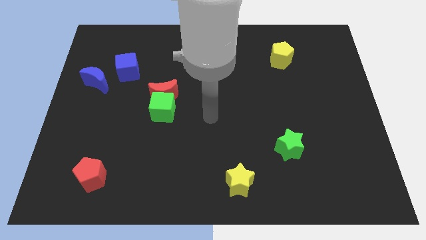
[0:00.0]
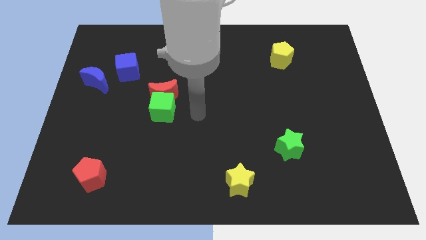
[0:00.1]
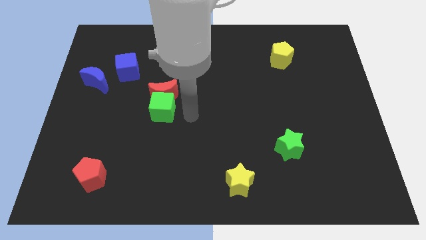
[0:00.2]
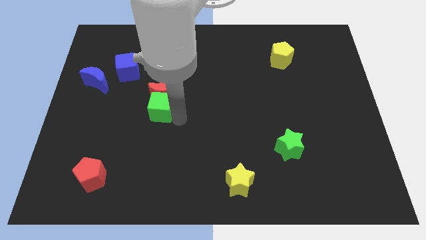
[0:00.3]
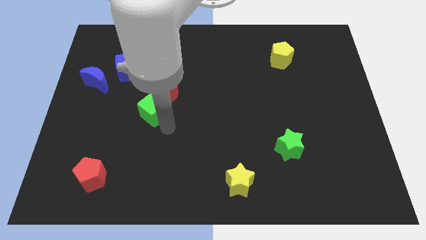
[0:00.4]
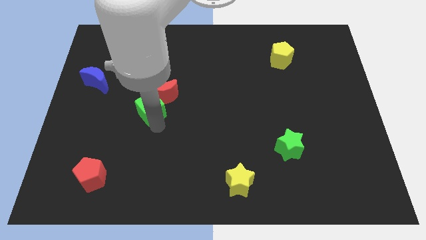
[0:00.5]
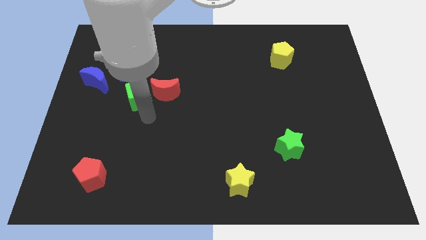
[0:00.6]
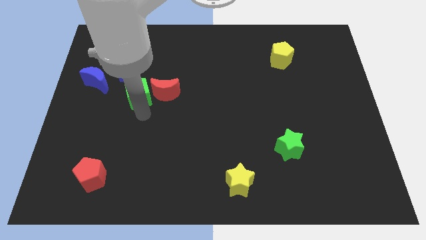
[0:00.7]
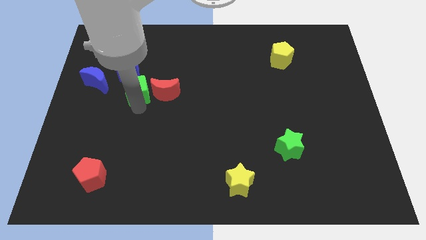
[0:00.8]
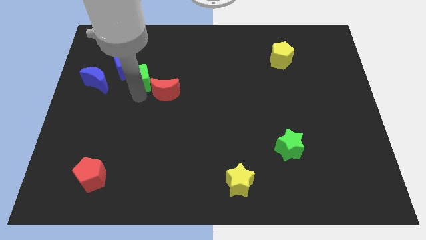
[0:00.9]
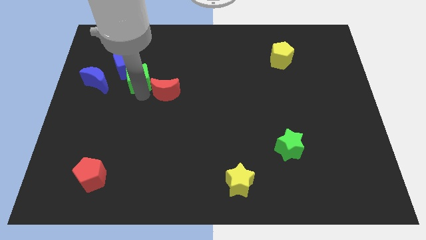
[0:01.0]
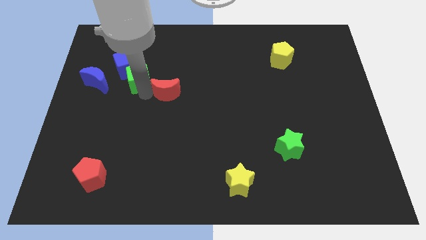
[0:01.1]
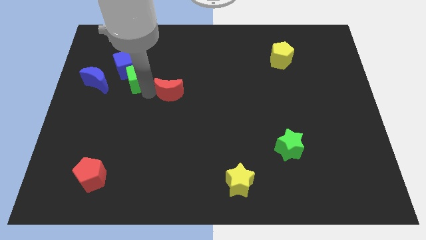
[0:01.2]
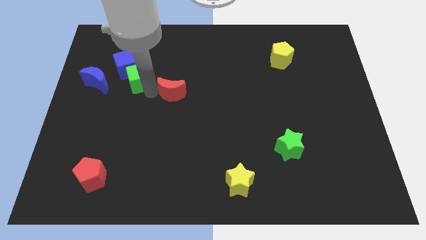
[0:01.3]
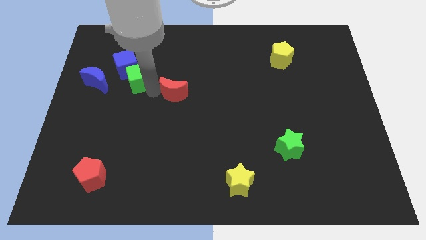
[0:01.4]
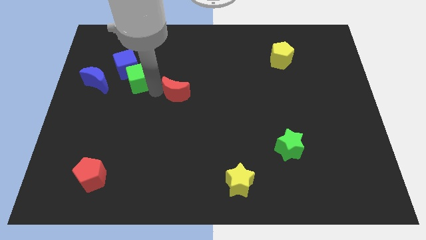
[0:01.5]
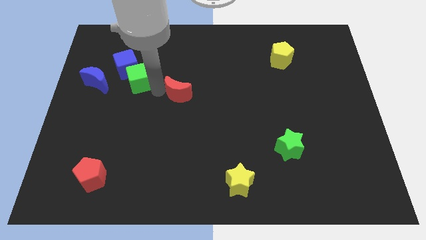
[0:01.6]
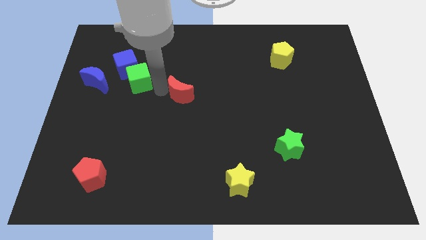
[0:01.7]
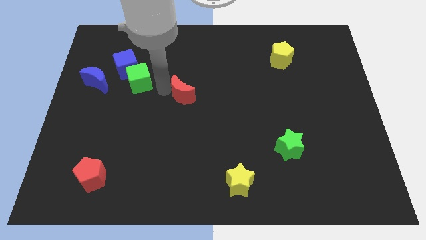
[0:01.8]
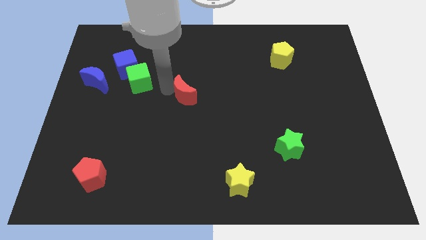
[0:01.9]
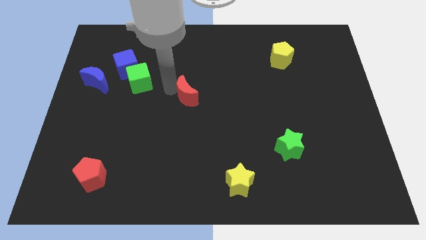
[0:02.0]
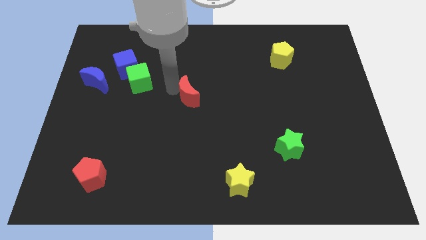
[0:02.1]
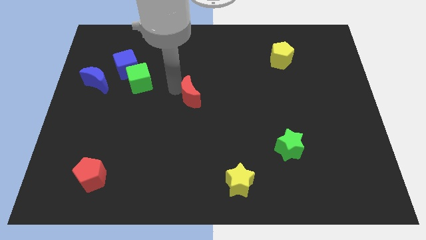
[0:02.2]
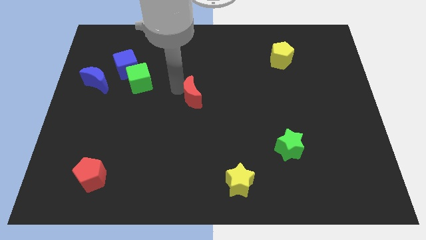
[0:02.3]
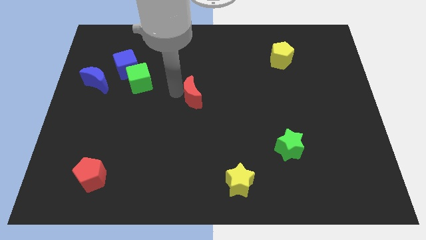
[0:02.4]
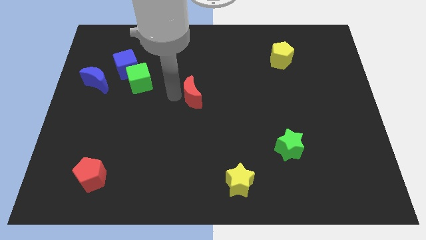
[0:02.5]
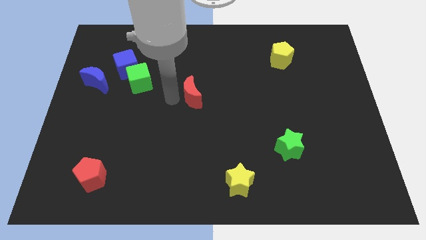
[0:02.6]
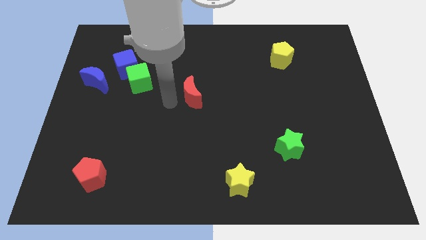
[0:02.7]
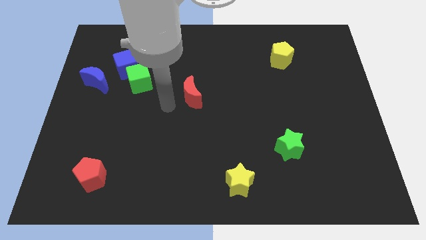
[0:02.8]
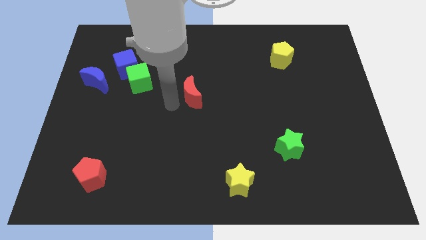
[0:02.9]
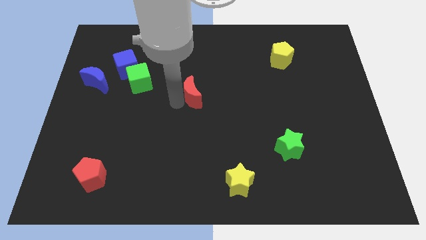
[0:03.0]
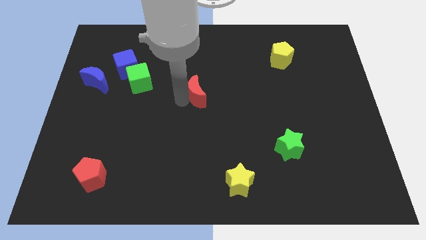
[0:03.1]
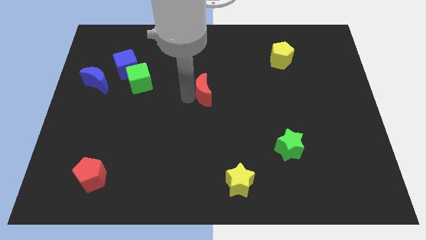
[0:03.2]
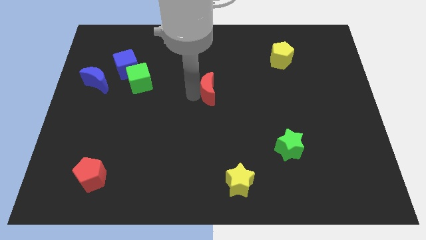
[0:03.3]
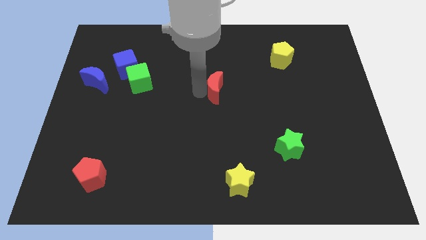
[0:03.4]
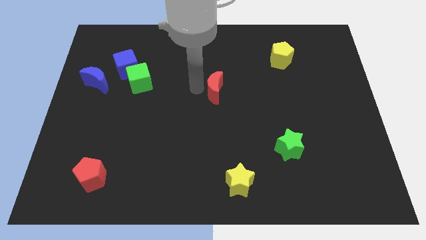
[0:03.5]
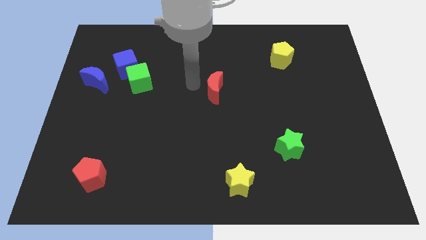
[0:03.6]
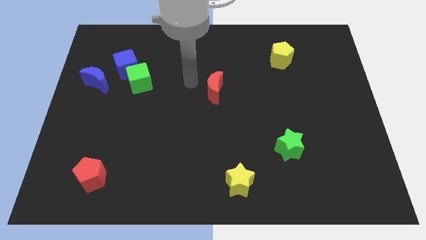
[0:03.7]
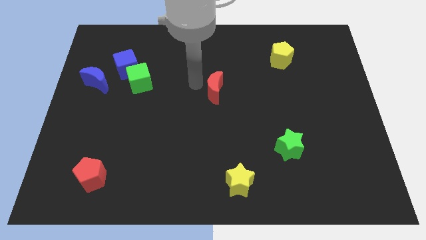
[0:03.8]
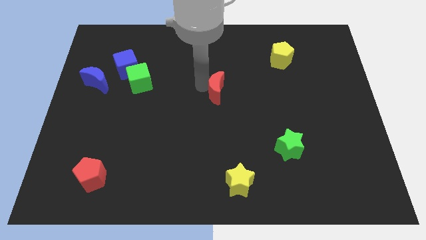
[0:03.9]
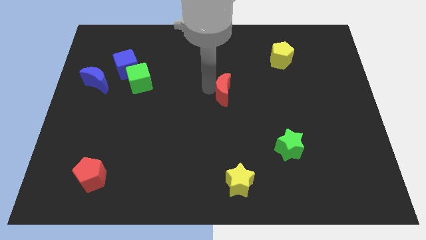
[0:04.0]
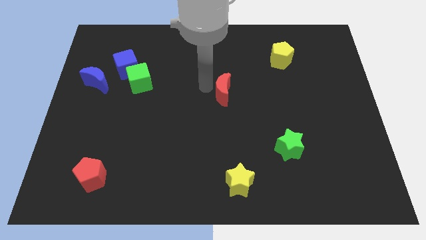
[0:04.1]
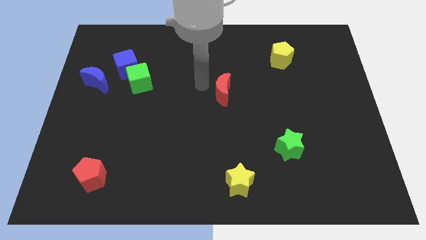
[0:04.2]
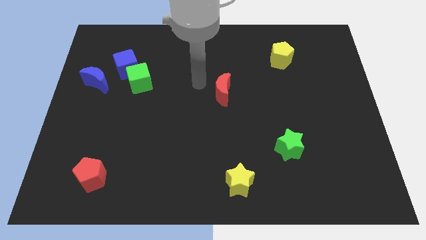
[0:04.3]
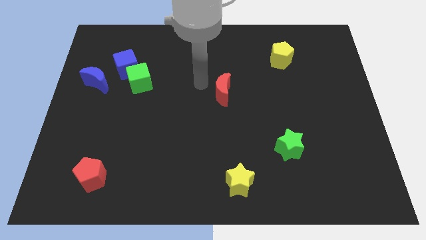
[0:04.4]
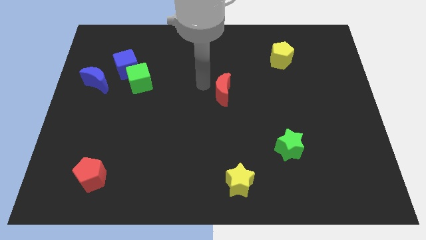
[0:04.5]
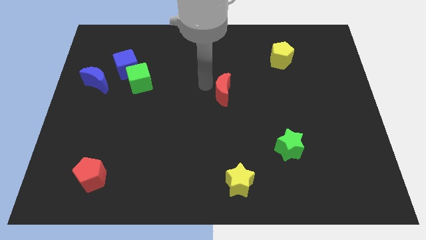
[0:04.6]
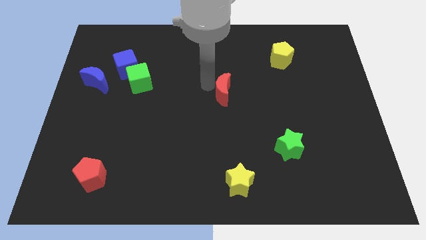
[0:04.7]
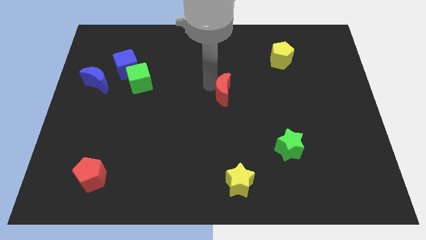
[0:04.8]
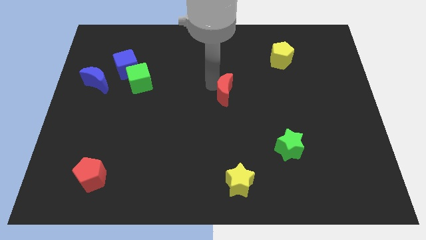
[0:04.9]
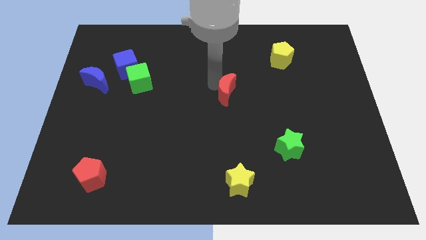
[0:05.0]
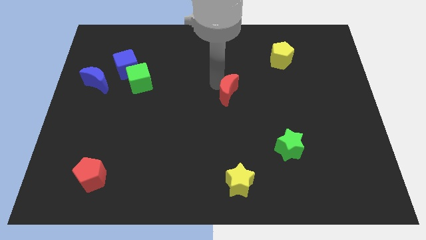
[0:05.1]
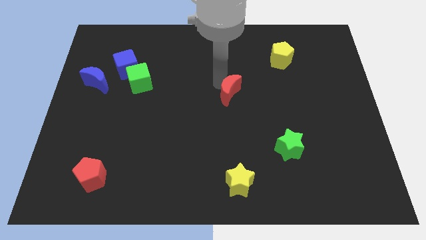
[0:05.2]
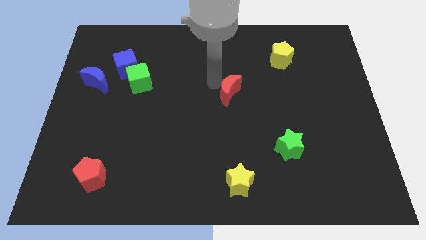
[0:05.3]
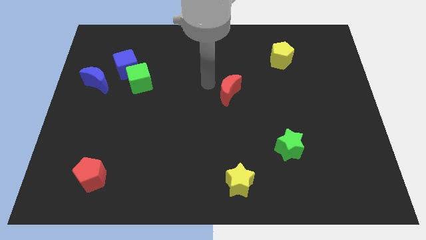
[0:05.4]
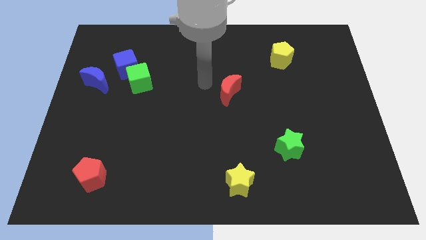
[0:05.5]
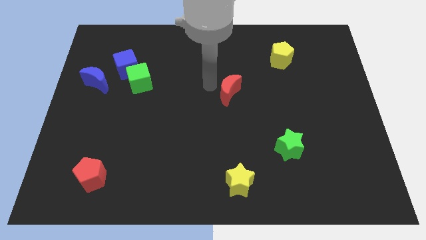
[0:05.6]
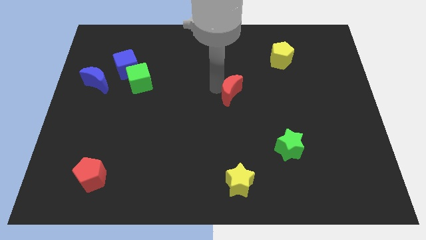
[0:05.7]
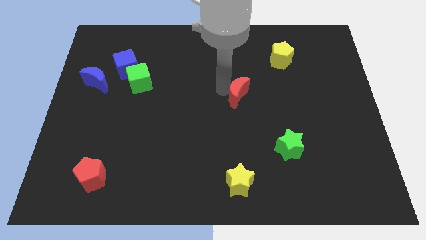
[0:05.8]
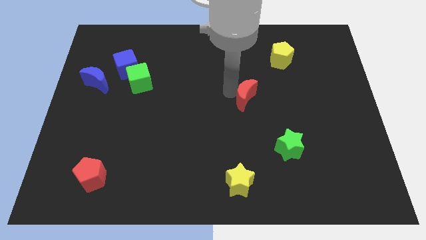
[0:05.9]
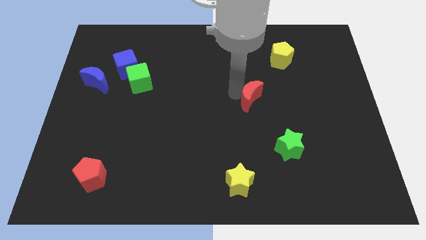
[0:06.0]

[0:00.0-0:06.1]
move the red moon right

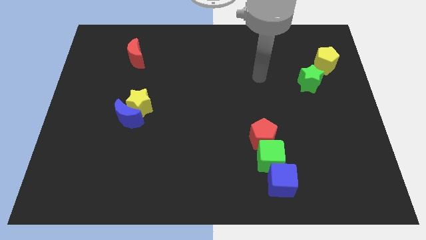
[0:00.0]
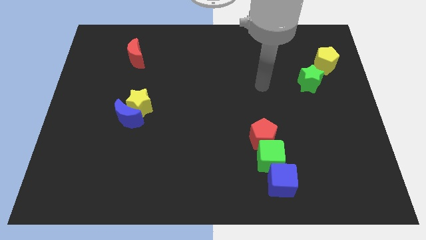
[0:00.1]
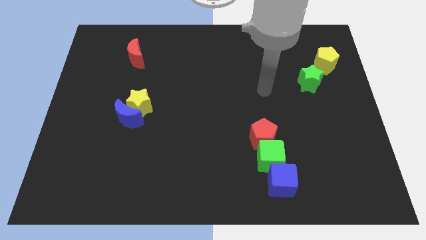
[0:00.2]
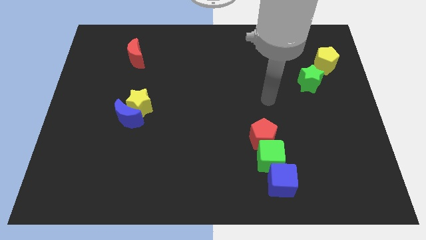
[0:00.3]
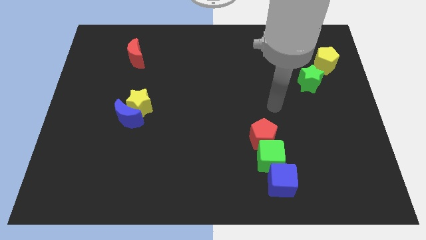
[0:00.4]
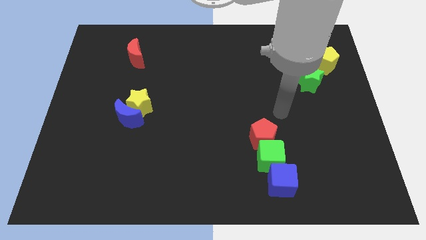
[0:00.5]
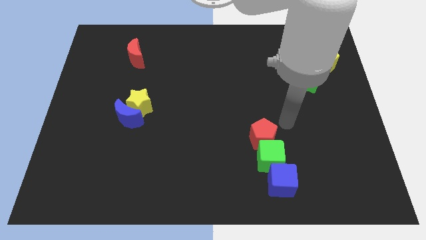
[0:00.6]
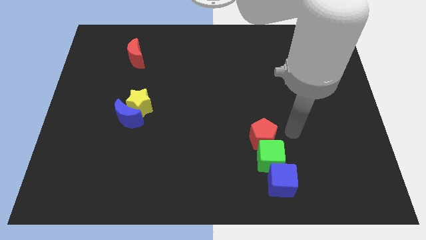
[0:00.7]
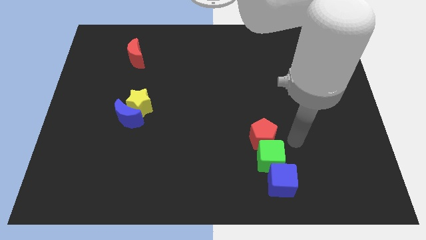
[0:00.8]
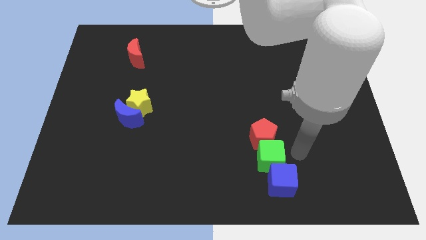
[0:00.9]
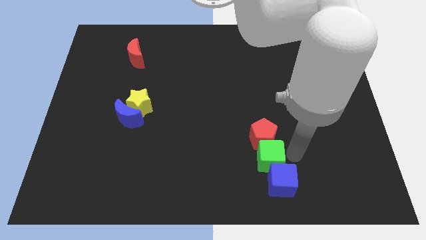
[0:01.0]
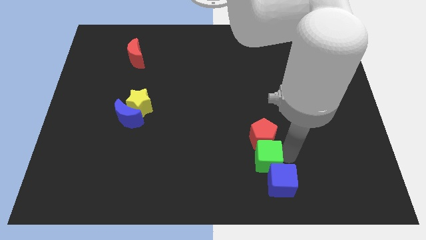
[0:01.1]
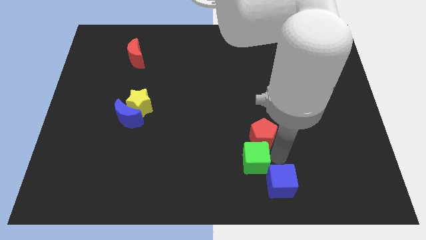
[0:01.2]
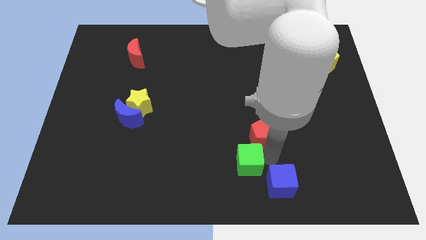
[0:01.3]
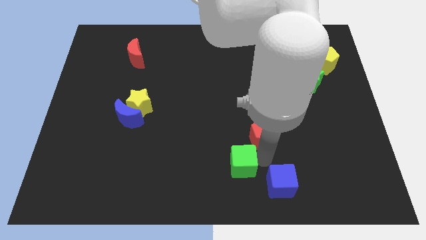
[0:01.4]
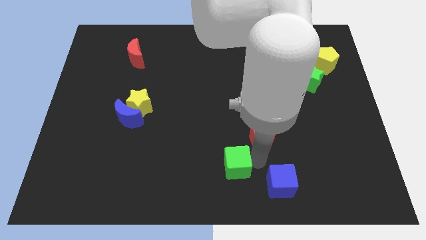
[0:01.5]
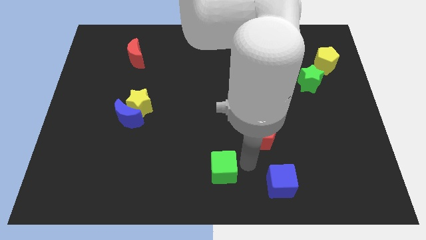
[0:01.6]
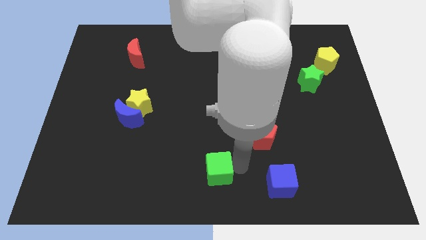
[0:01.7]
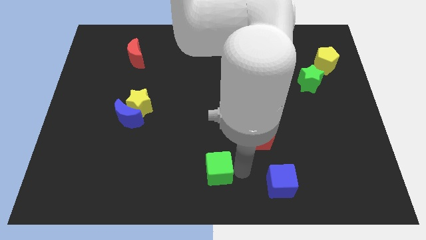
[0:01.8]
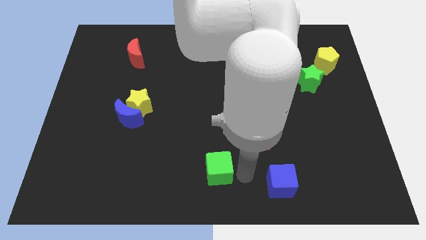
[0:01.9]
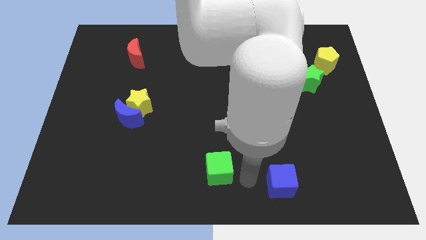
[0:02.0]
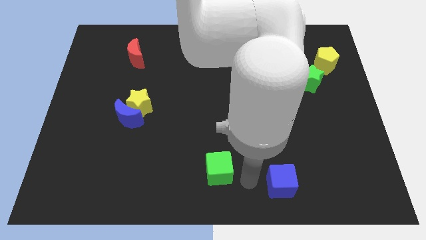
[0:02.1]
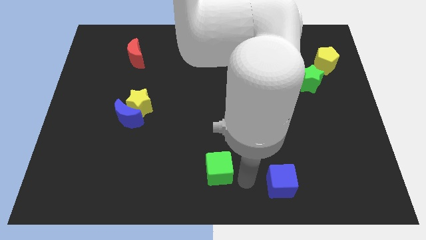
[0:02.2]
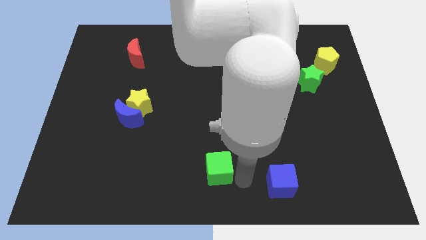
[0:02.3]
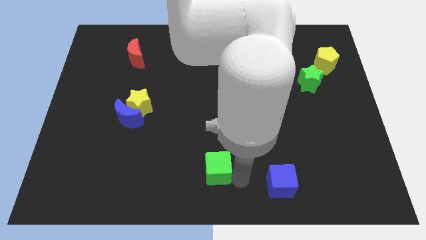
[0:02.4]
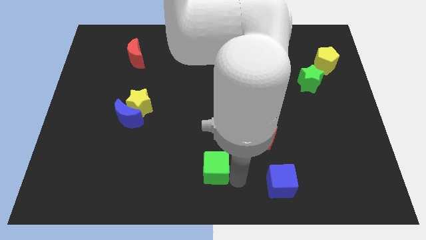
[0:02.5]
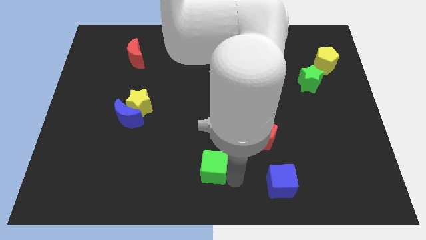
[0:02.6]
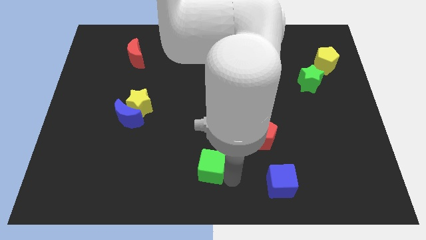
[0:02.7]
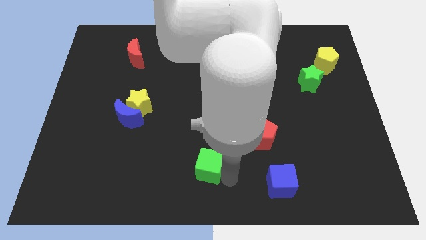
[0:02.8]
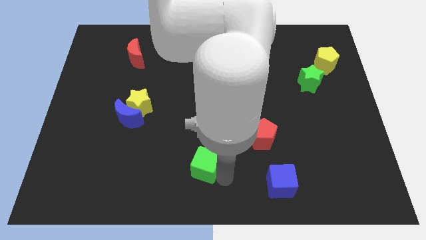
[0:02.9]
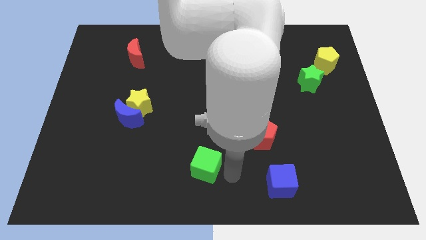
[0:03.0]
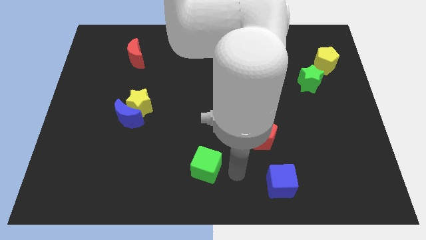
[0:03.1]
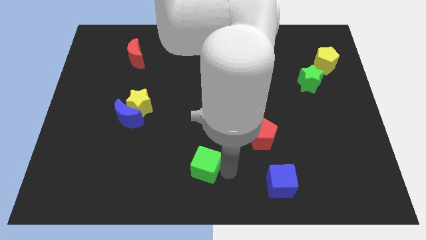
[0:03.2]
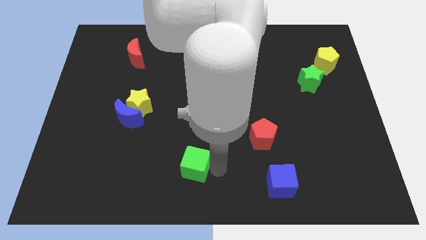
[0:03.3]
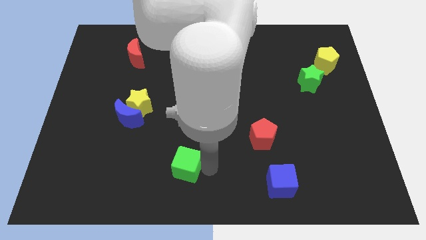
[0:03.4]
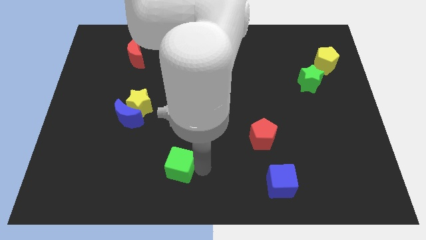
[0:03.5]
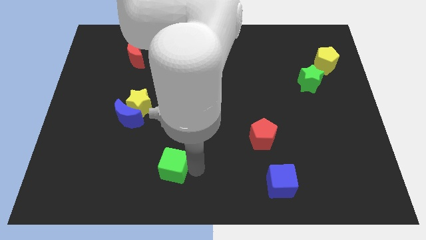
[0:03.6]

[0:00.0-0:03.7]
push the green cube to the left
